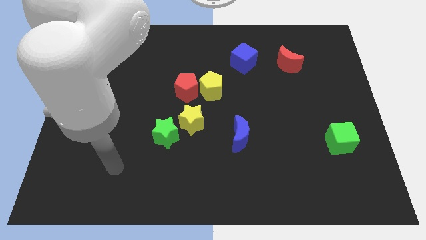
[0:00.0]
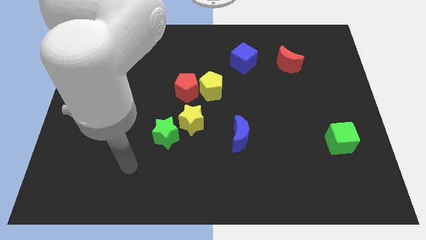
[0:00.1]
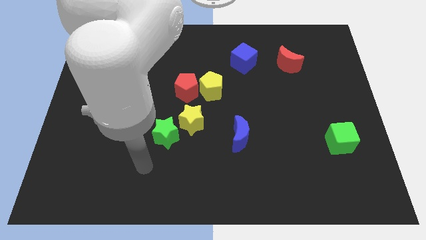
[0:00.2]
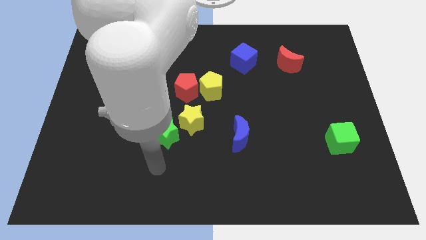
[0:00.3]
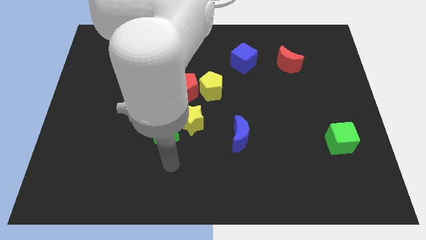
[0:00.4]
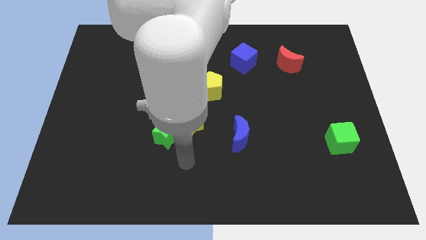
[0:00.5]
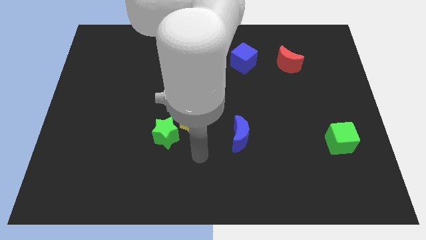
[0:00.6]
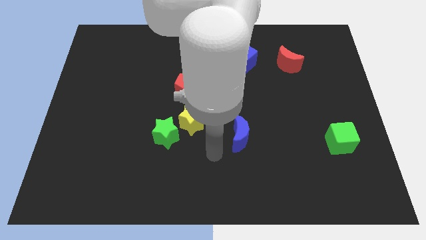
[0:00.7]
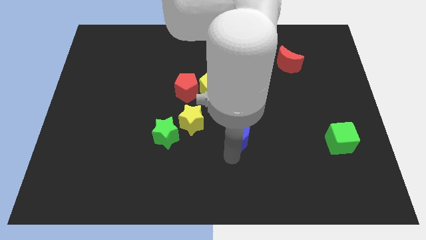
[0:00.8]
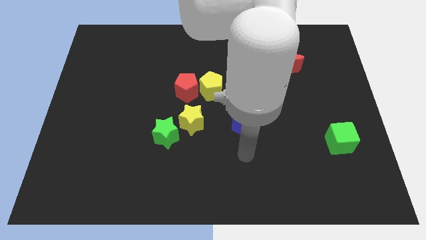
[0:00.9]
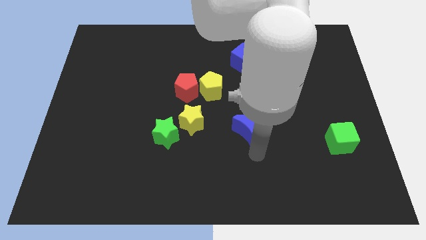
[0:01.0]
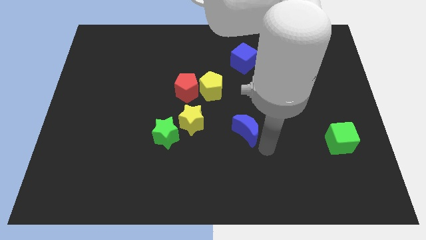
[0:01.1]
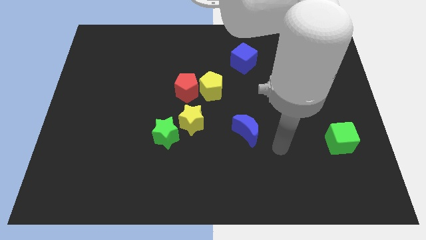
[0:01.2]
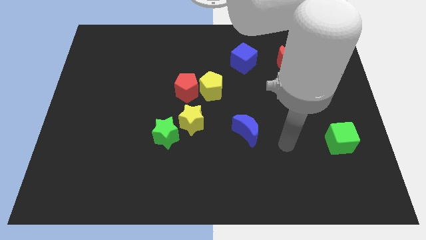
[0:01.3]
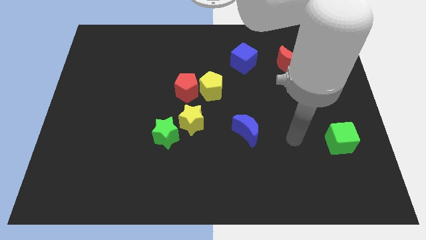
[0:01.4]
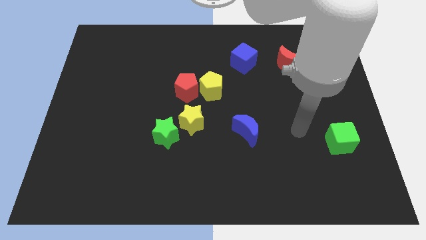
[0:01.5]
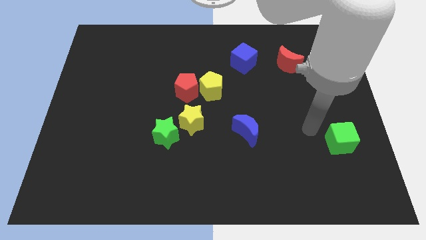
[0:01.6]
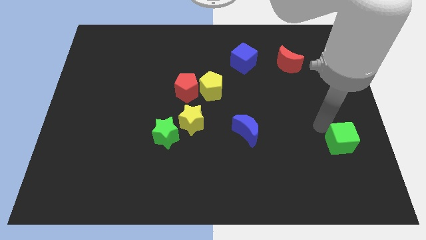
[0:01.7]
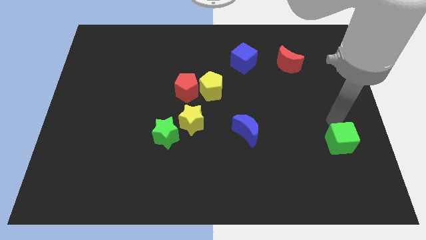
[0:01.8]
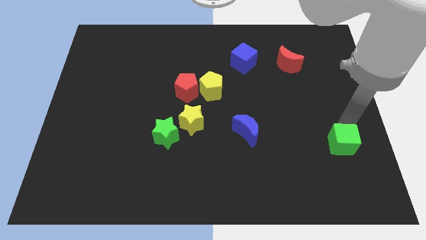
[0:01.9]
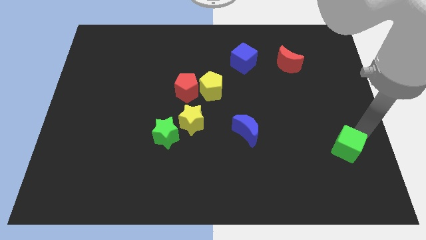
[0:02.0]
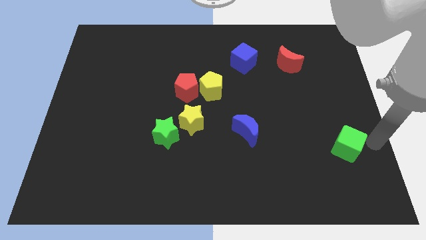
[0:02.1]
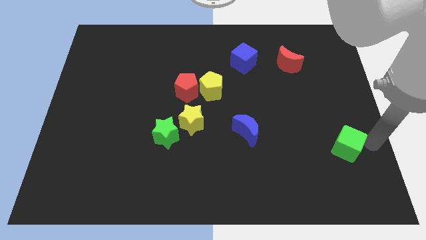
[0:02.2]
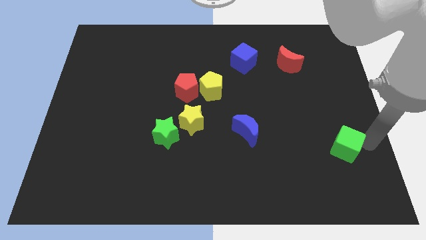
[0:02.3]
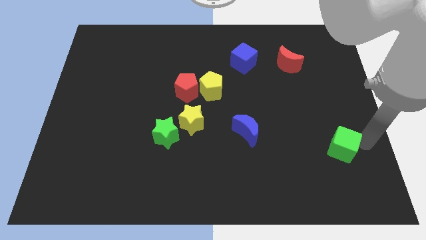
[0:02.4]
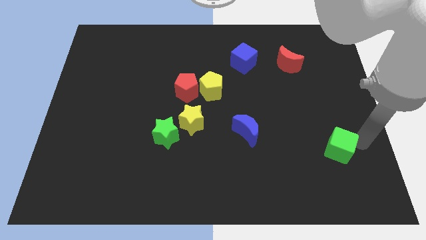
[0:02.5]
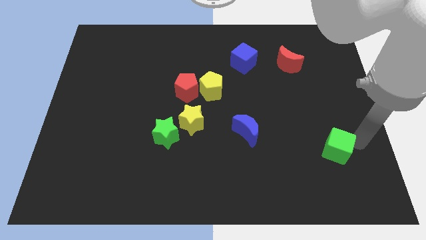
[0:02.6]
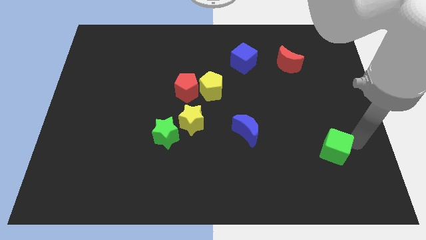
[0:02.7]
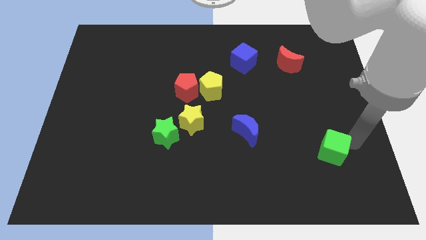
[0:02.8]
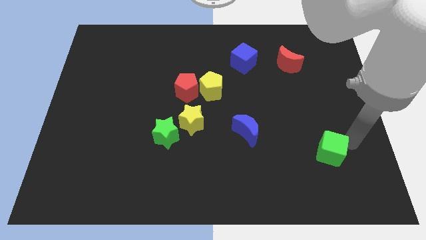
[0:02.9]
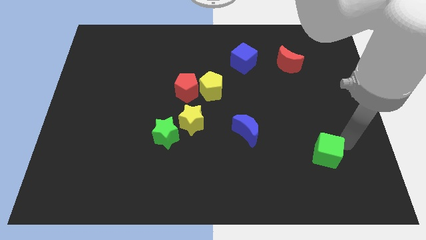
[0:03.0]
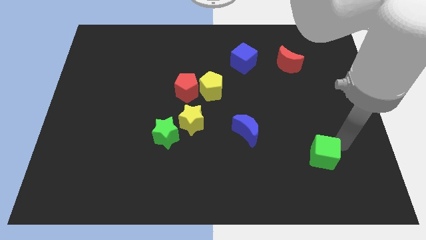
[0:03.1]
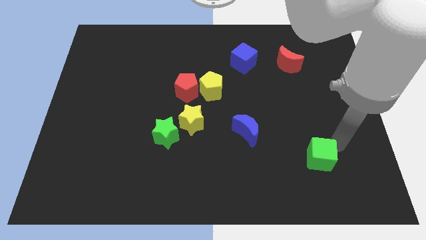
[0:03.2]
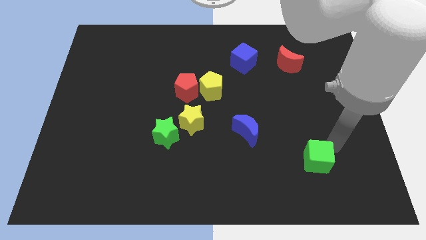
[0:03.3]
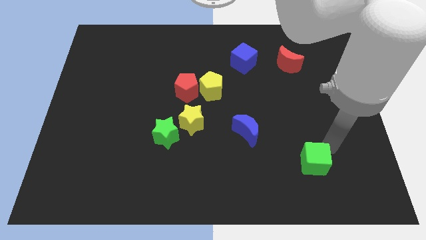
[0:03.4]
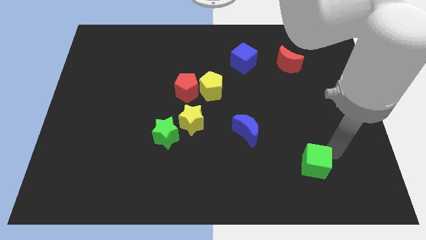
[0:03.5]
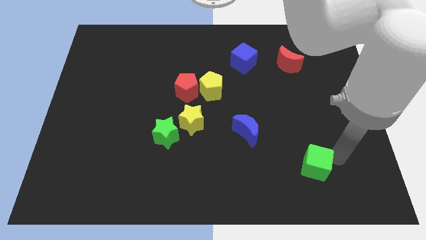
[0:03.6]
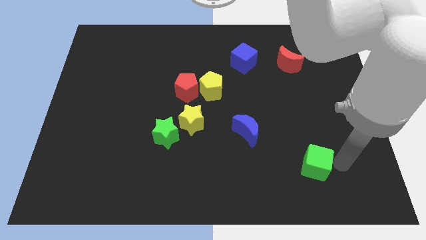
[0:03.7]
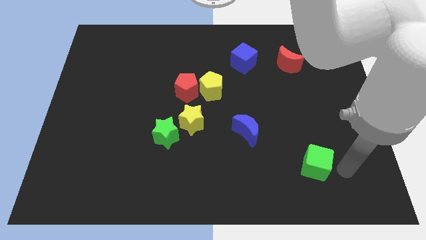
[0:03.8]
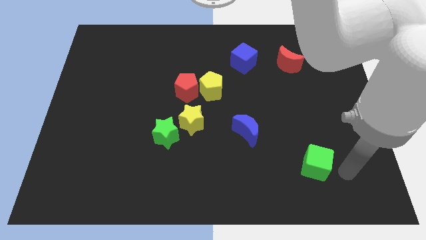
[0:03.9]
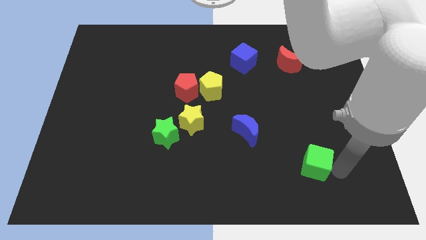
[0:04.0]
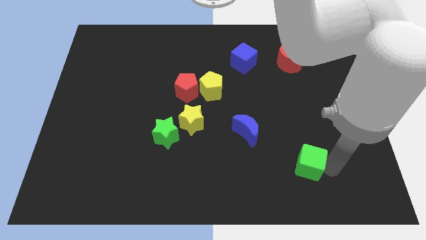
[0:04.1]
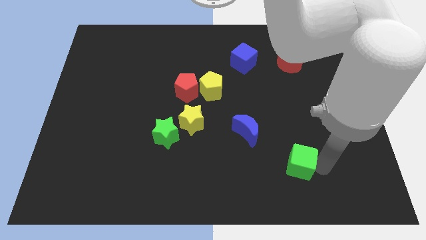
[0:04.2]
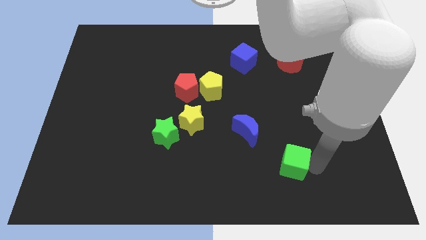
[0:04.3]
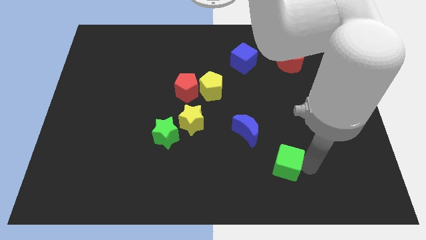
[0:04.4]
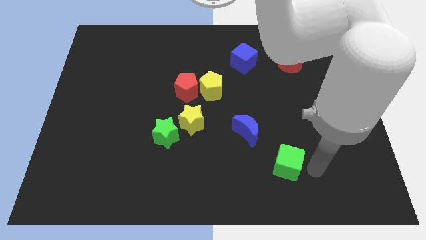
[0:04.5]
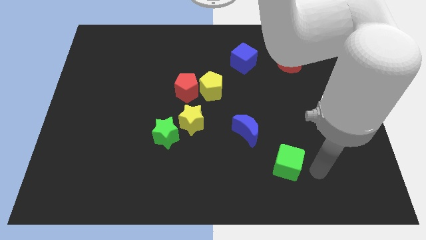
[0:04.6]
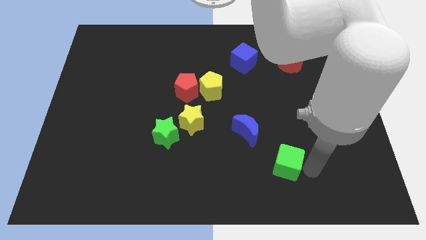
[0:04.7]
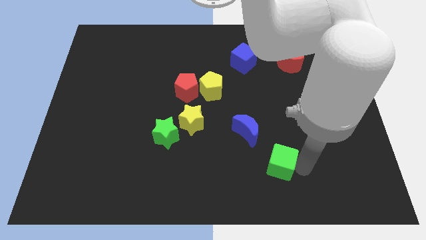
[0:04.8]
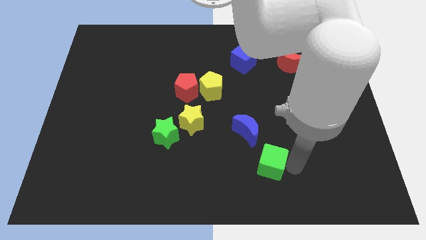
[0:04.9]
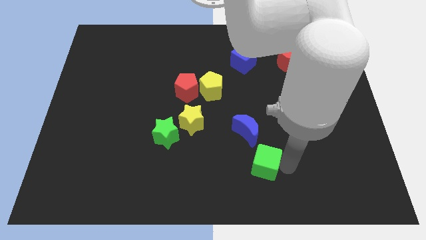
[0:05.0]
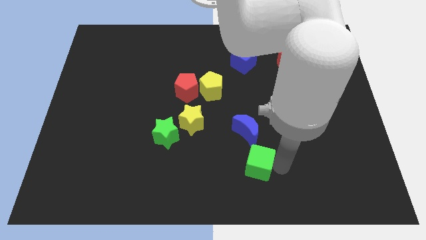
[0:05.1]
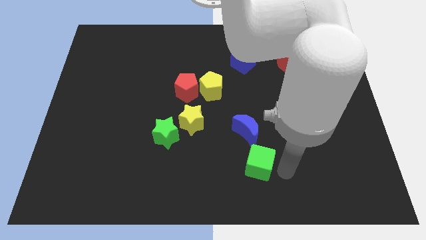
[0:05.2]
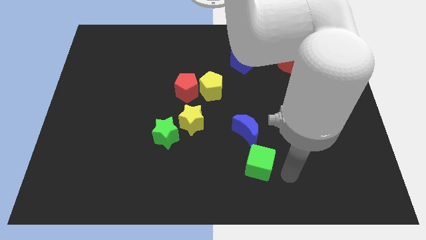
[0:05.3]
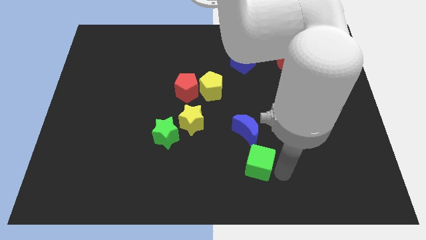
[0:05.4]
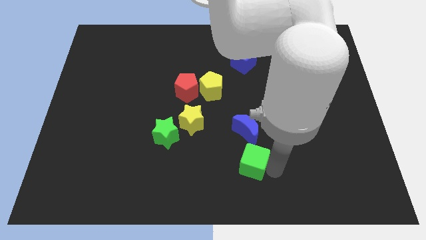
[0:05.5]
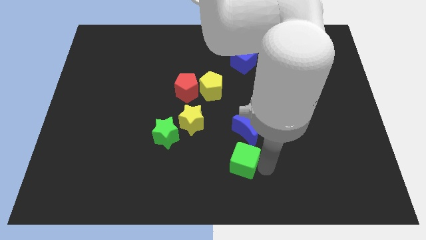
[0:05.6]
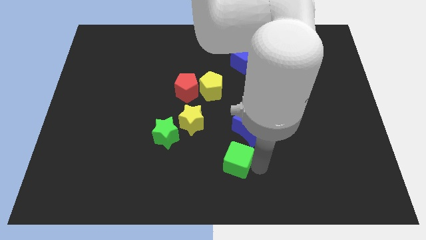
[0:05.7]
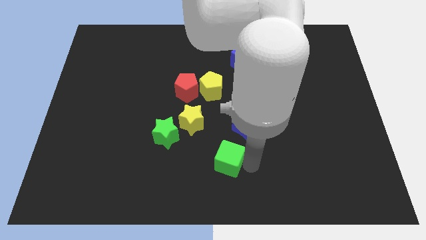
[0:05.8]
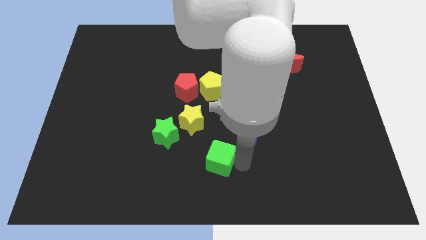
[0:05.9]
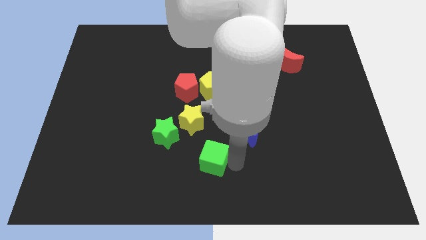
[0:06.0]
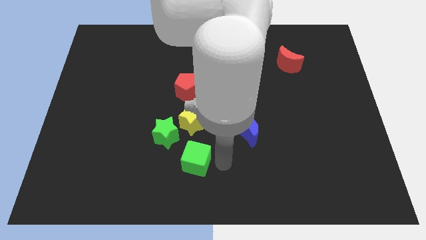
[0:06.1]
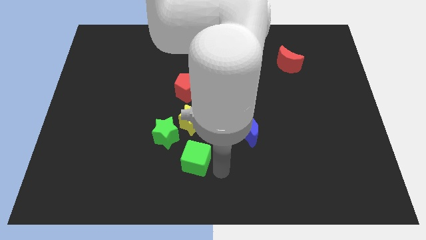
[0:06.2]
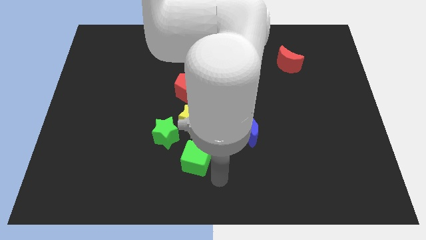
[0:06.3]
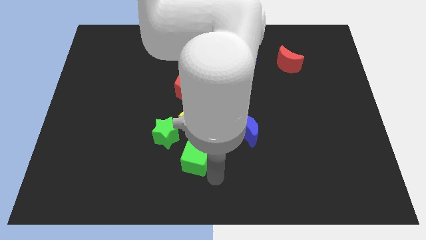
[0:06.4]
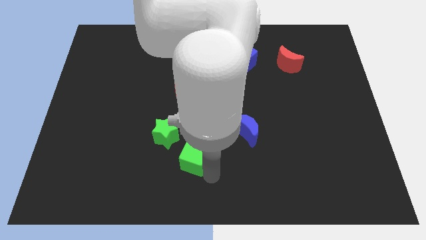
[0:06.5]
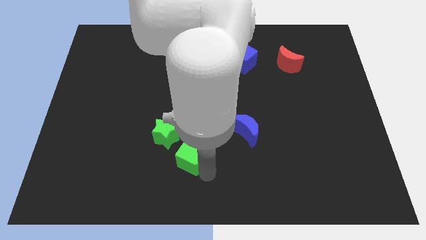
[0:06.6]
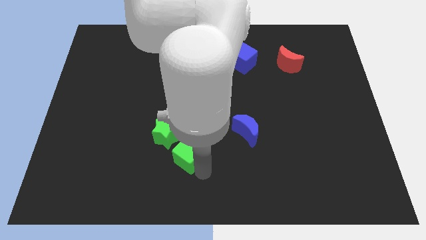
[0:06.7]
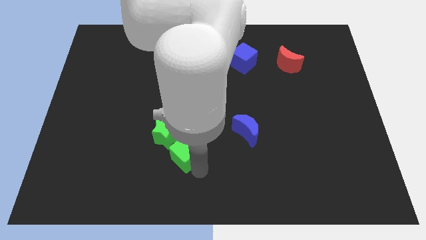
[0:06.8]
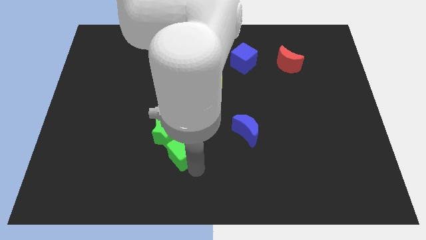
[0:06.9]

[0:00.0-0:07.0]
slide the green cube close to the green star

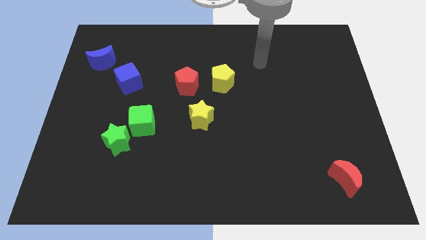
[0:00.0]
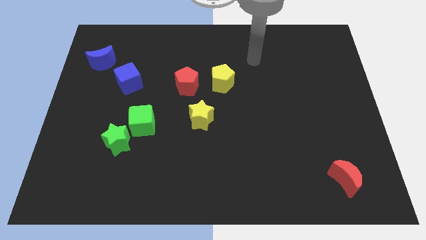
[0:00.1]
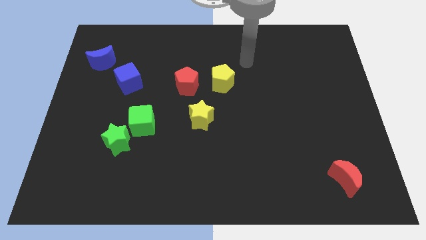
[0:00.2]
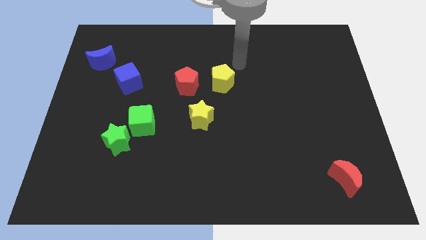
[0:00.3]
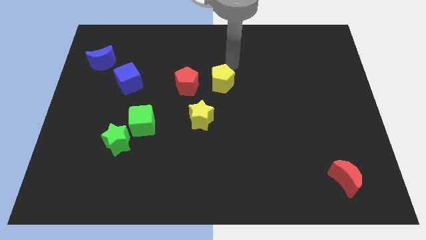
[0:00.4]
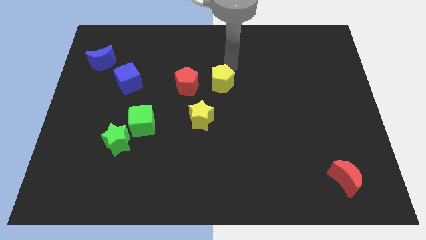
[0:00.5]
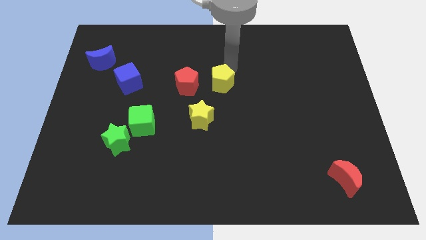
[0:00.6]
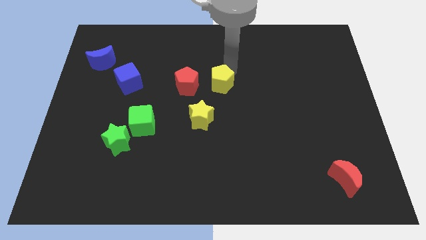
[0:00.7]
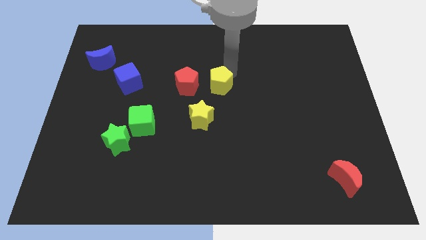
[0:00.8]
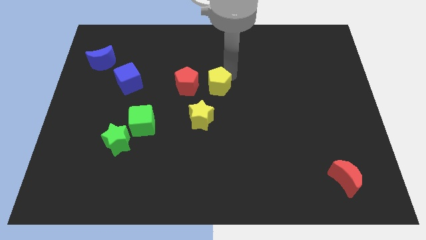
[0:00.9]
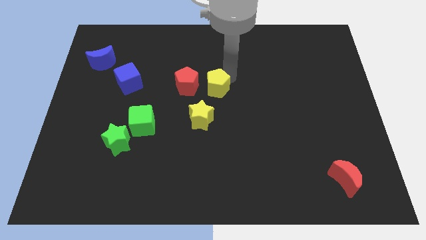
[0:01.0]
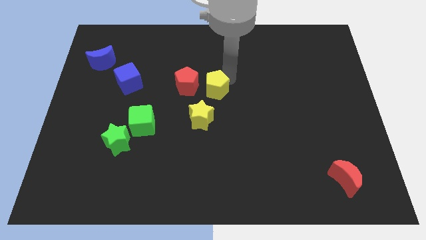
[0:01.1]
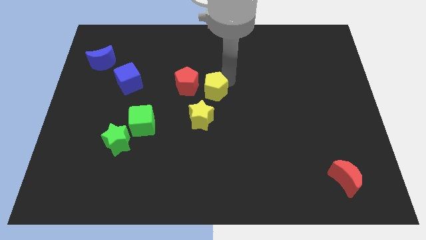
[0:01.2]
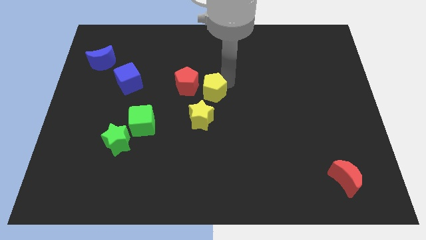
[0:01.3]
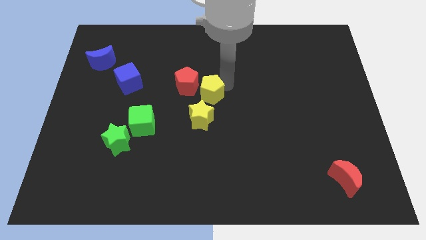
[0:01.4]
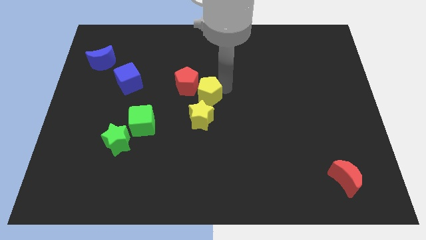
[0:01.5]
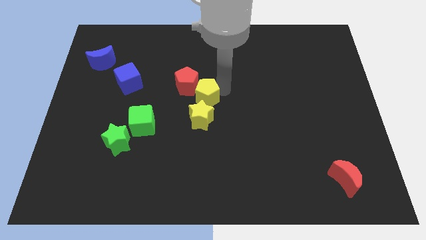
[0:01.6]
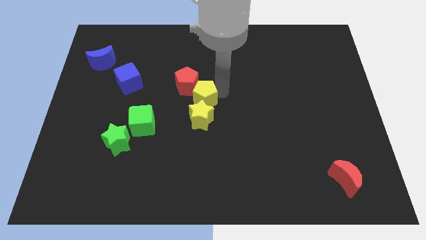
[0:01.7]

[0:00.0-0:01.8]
slide the yellow pentagon close to the yellow star
